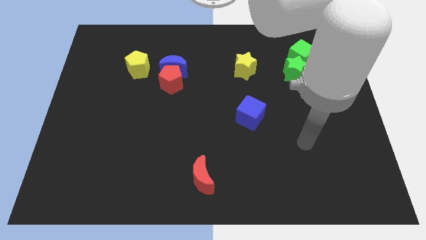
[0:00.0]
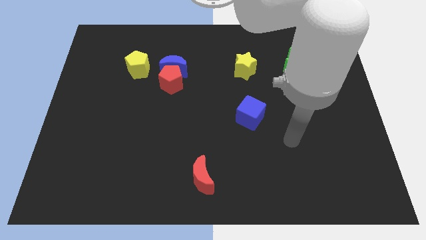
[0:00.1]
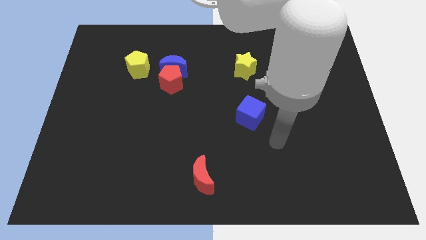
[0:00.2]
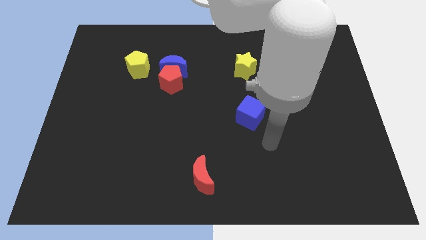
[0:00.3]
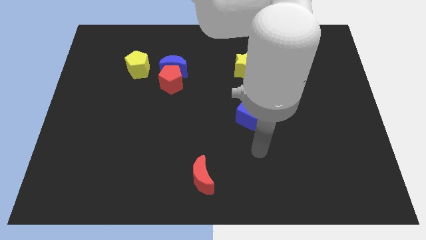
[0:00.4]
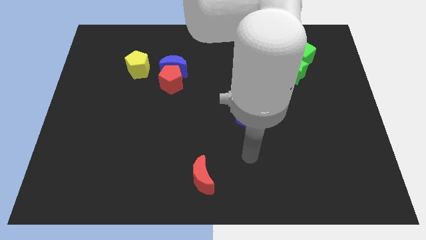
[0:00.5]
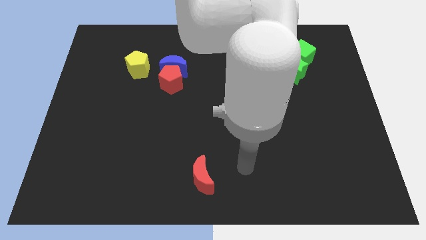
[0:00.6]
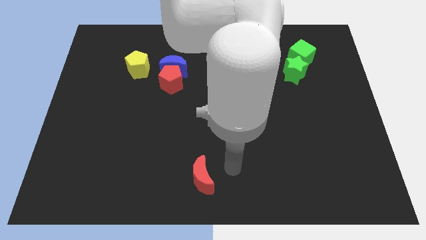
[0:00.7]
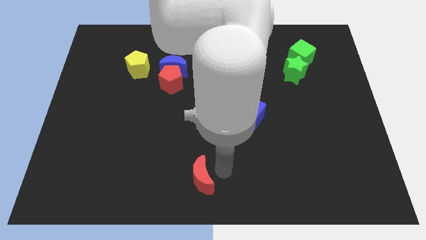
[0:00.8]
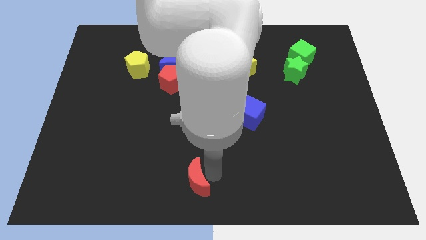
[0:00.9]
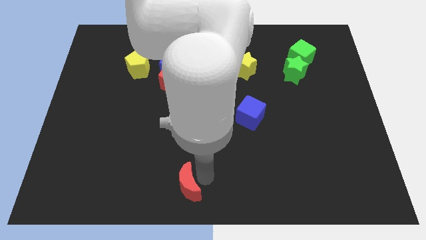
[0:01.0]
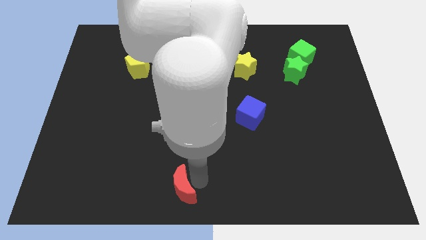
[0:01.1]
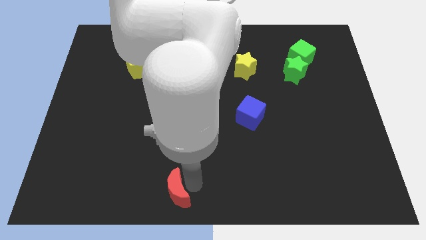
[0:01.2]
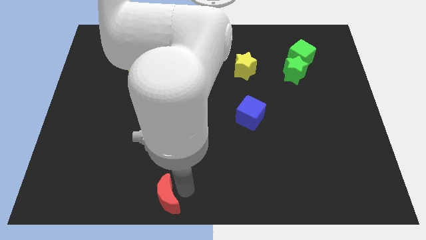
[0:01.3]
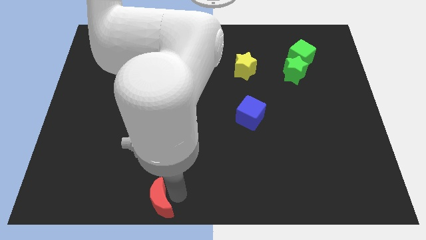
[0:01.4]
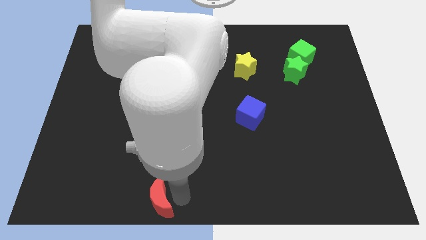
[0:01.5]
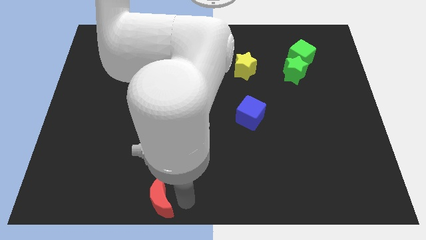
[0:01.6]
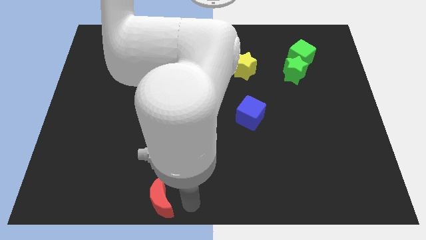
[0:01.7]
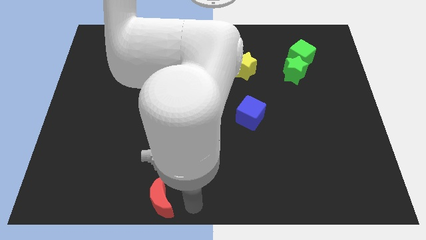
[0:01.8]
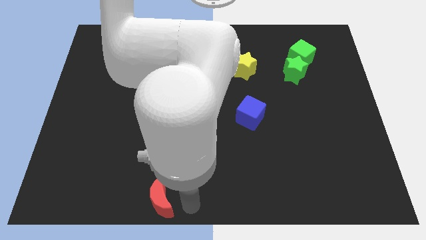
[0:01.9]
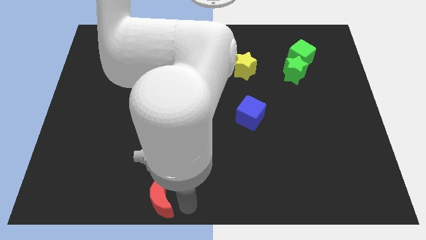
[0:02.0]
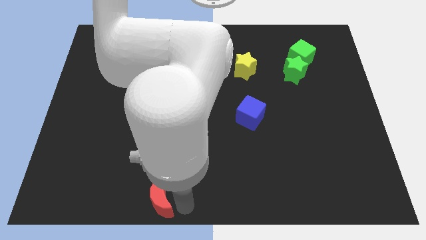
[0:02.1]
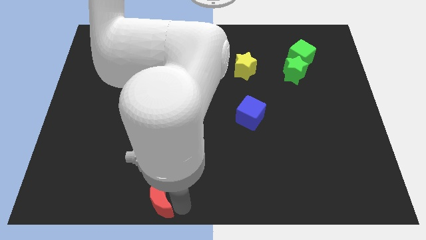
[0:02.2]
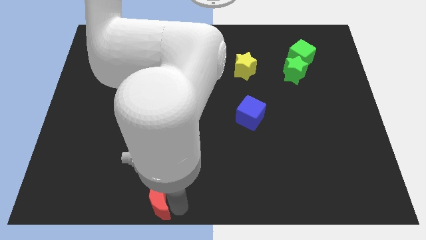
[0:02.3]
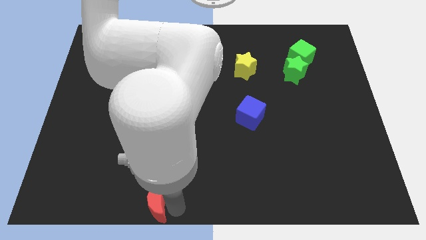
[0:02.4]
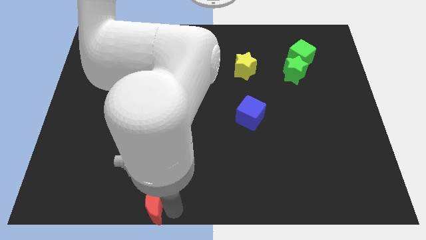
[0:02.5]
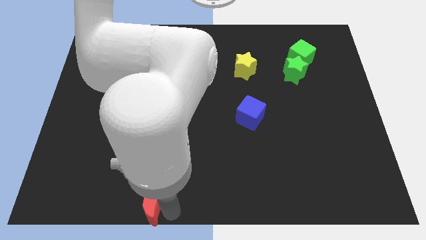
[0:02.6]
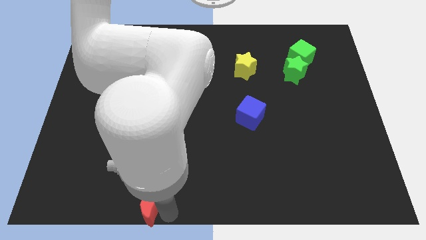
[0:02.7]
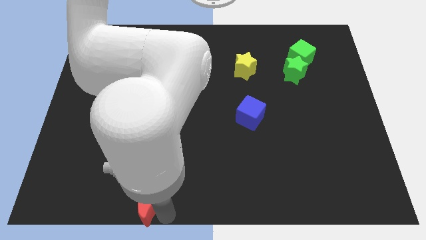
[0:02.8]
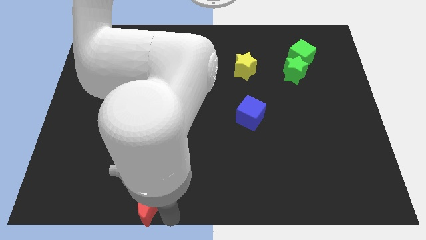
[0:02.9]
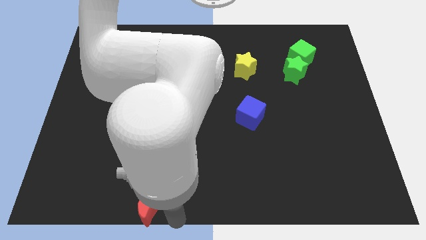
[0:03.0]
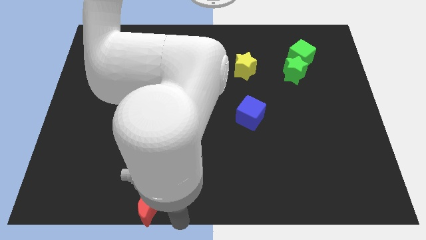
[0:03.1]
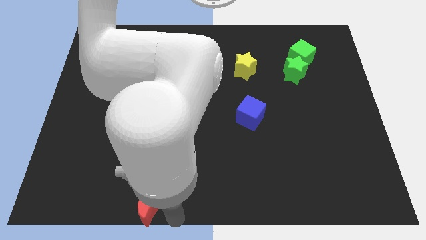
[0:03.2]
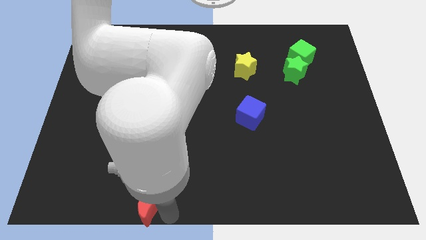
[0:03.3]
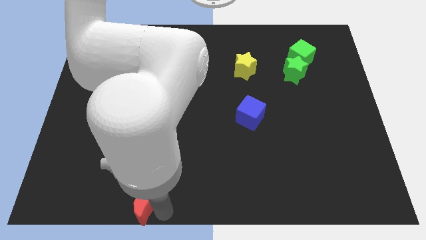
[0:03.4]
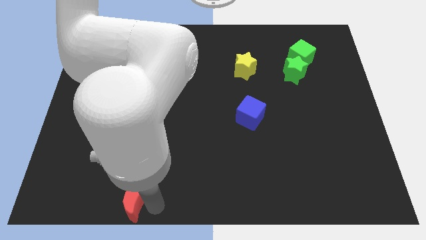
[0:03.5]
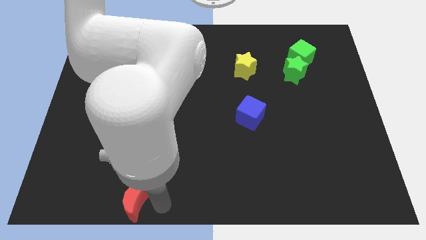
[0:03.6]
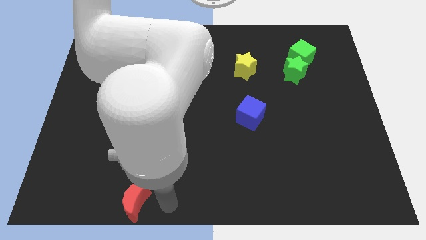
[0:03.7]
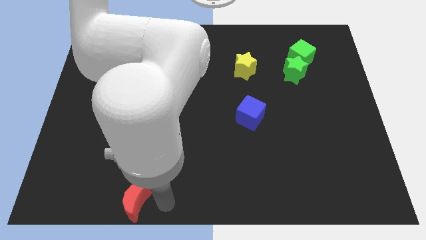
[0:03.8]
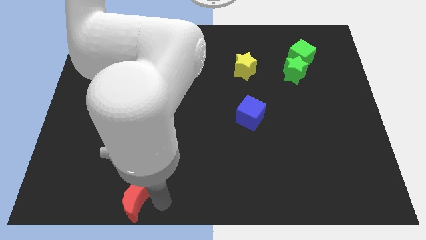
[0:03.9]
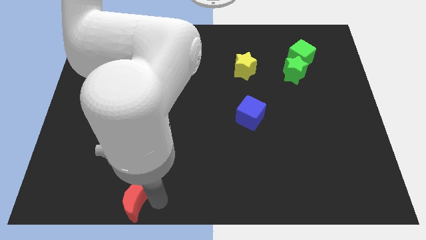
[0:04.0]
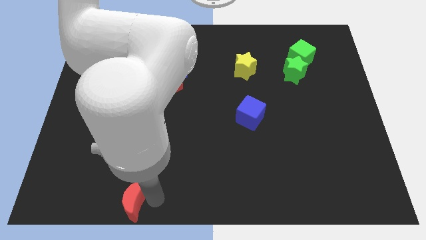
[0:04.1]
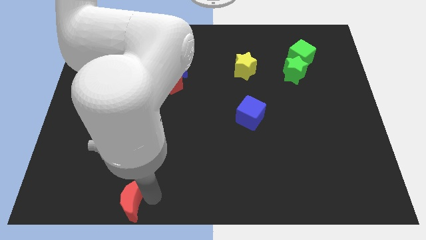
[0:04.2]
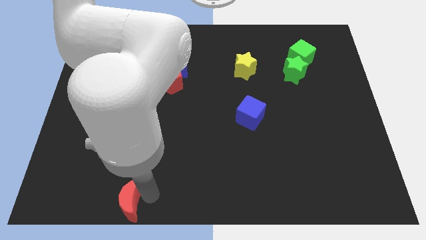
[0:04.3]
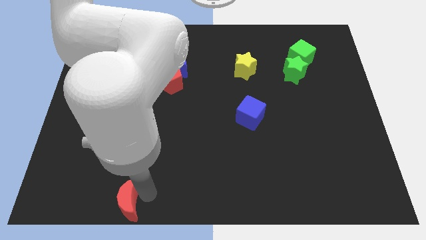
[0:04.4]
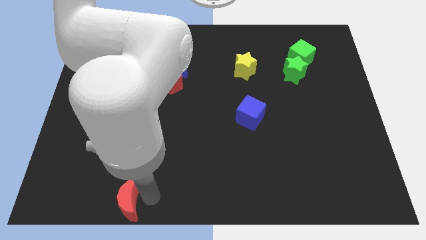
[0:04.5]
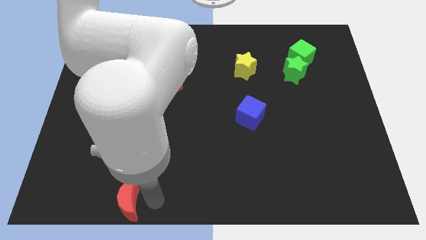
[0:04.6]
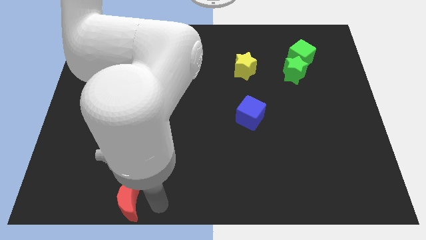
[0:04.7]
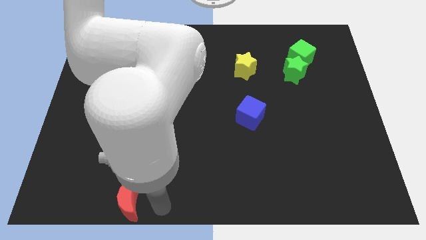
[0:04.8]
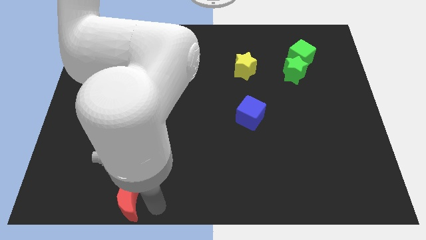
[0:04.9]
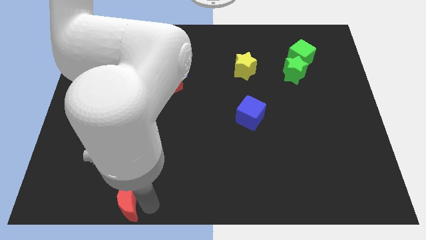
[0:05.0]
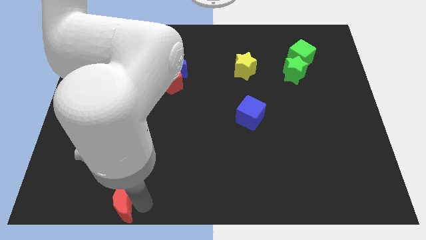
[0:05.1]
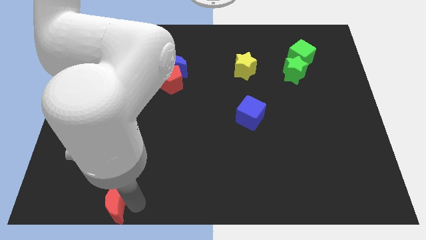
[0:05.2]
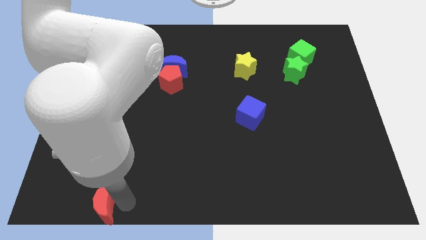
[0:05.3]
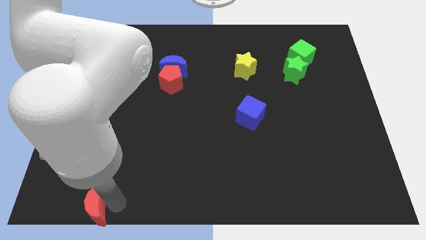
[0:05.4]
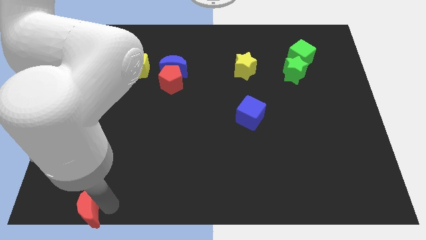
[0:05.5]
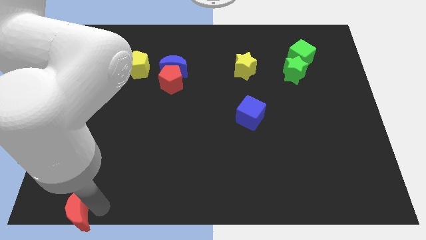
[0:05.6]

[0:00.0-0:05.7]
push the red moon to the bottom left corner
